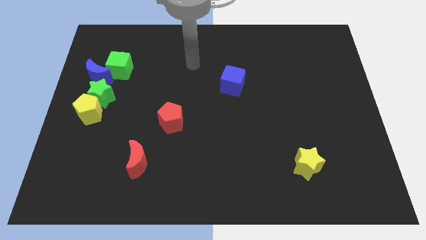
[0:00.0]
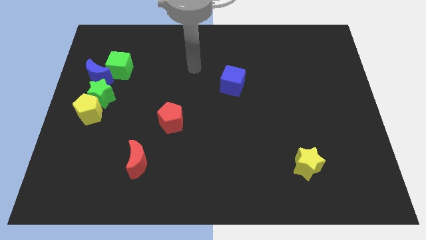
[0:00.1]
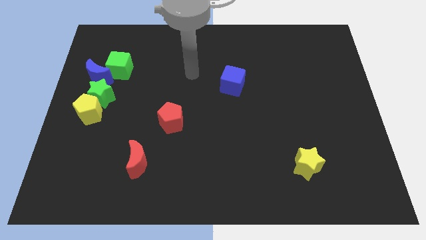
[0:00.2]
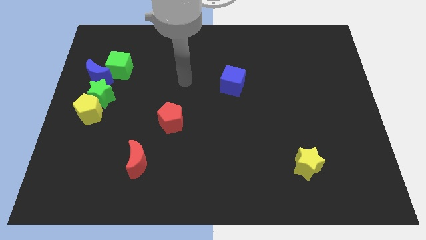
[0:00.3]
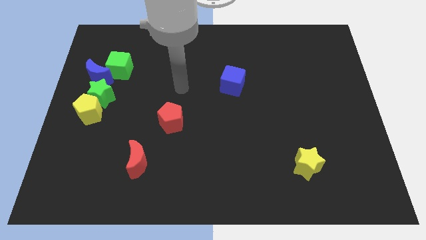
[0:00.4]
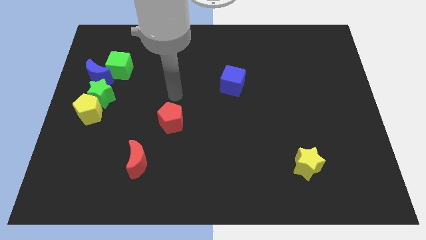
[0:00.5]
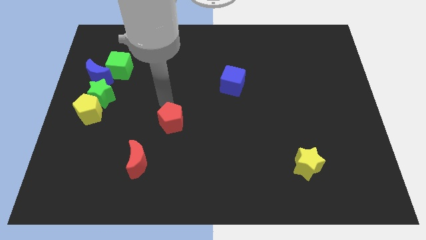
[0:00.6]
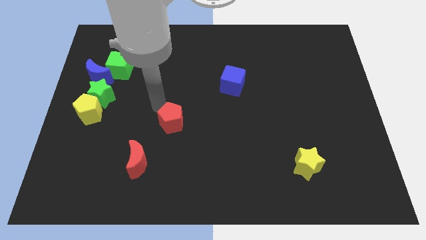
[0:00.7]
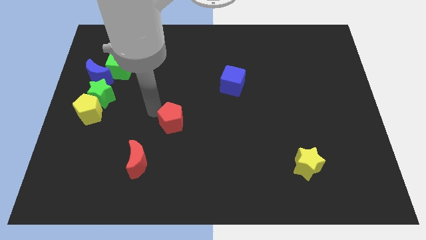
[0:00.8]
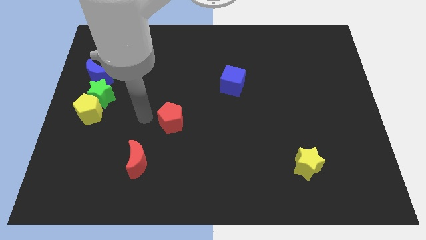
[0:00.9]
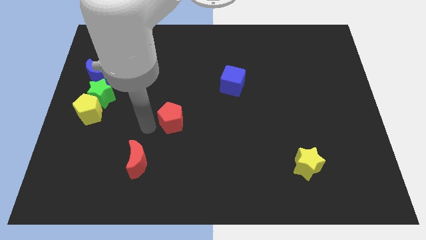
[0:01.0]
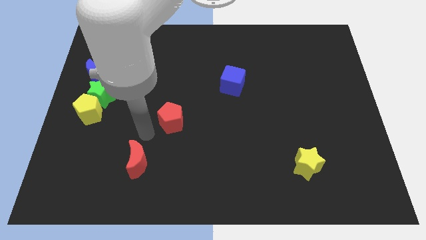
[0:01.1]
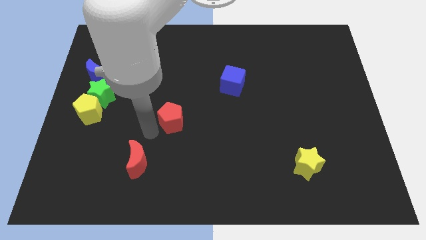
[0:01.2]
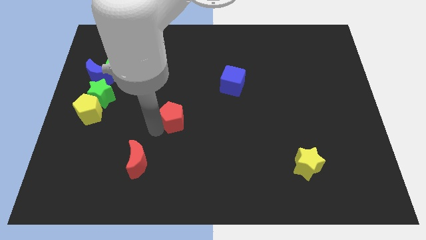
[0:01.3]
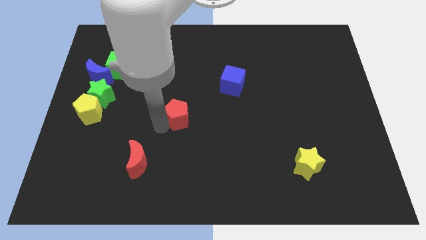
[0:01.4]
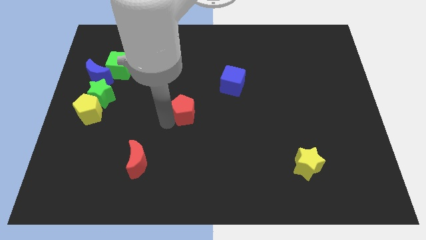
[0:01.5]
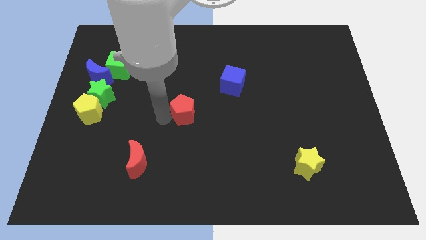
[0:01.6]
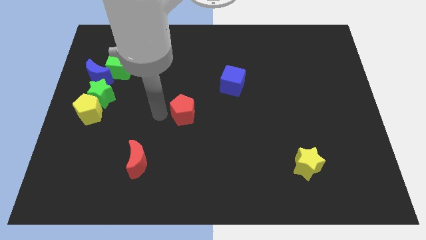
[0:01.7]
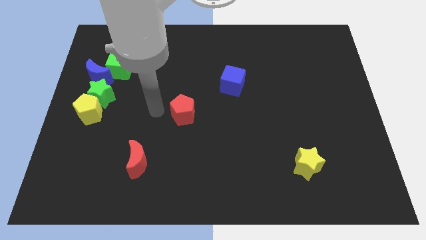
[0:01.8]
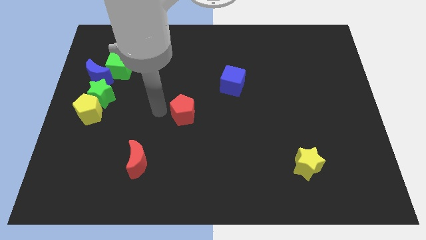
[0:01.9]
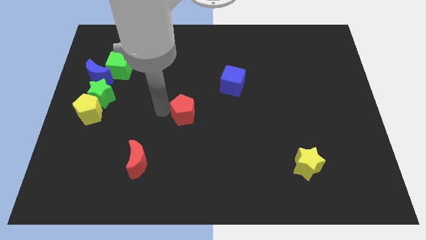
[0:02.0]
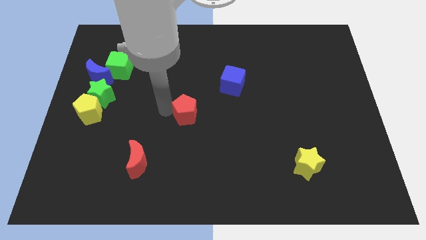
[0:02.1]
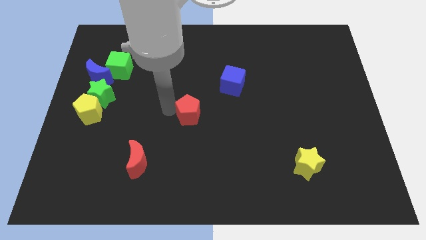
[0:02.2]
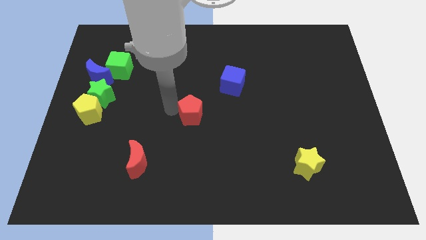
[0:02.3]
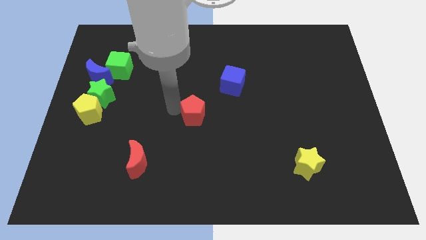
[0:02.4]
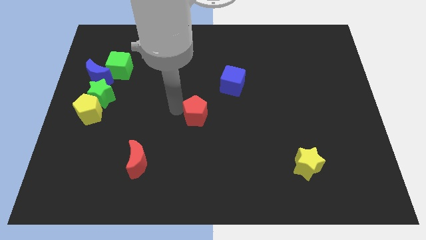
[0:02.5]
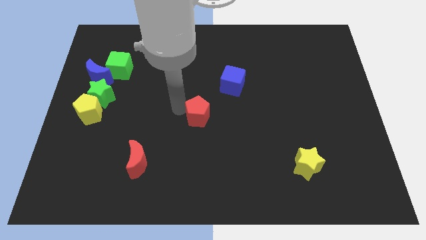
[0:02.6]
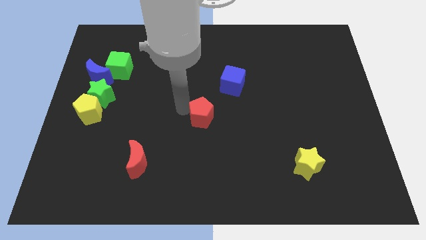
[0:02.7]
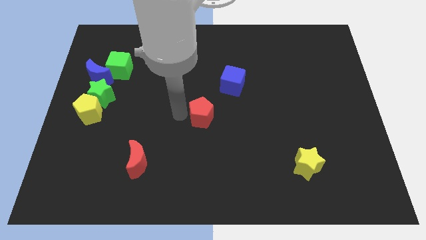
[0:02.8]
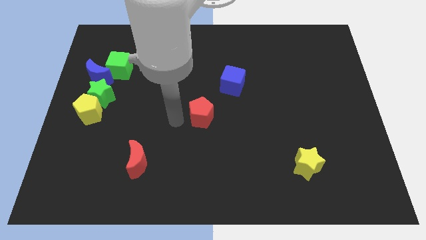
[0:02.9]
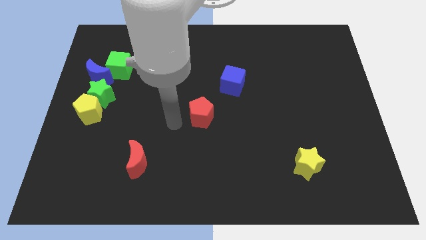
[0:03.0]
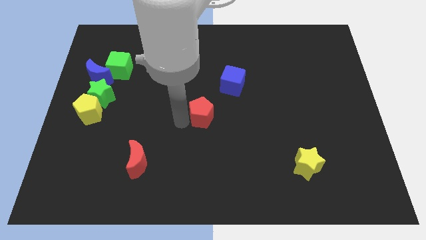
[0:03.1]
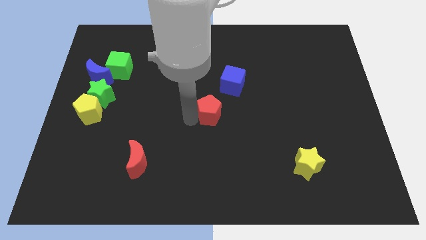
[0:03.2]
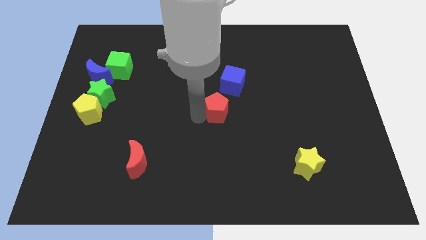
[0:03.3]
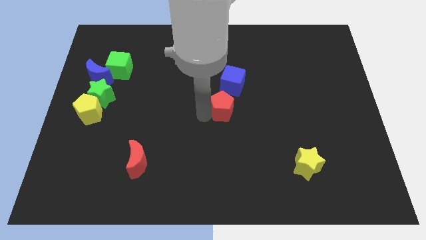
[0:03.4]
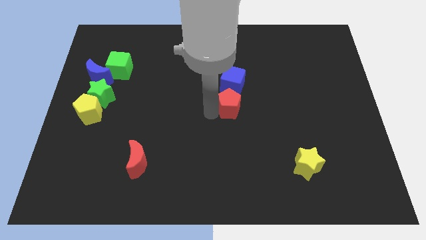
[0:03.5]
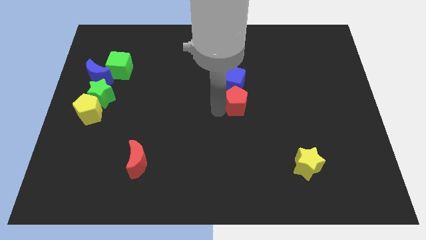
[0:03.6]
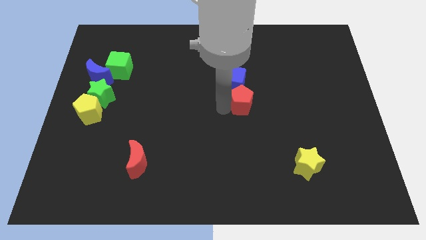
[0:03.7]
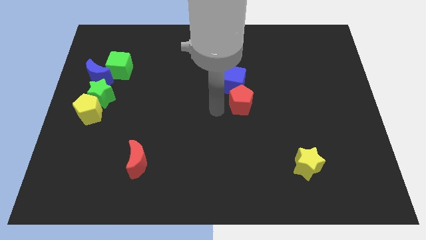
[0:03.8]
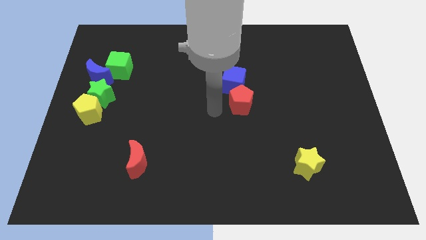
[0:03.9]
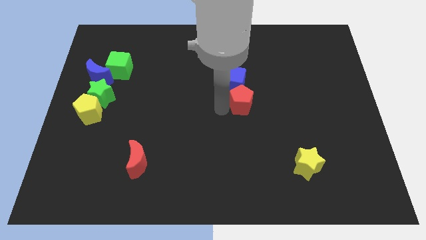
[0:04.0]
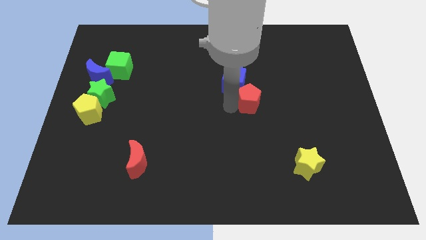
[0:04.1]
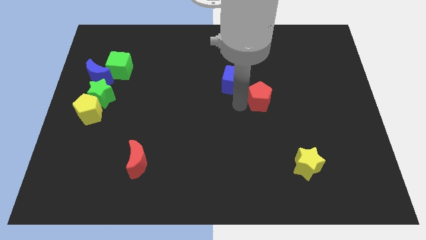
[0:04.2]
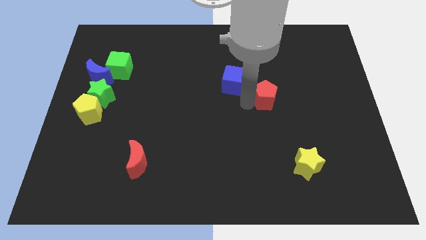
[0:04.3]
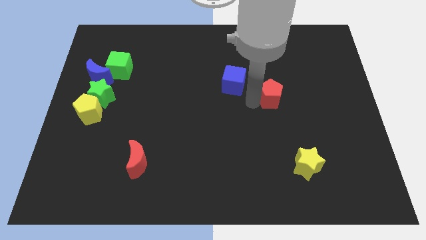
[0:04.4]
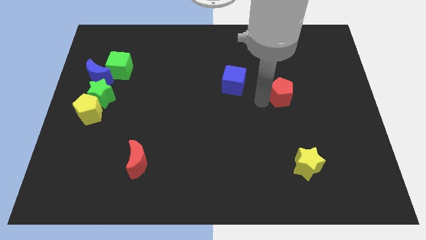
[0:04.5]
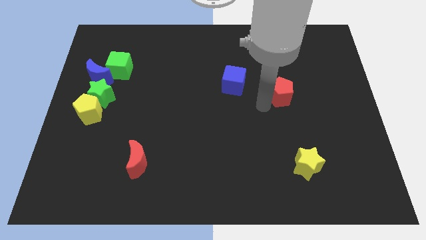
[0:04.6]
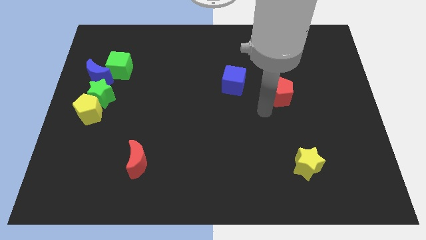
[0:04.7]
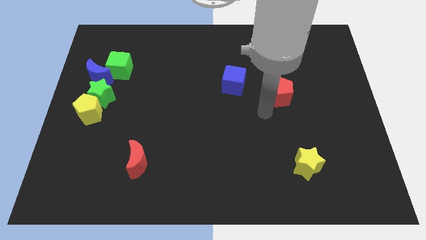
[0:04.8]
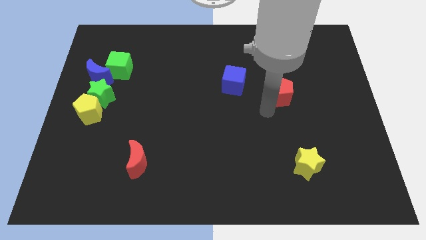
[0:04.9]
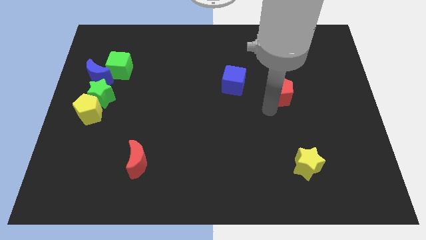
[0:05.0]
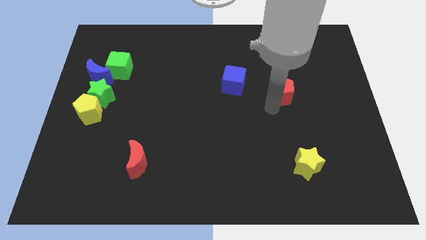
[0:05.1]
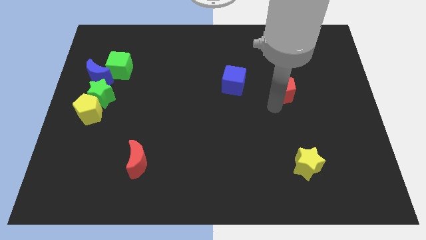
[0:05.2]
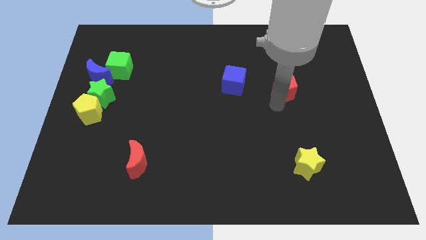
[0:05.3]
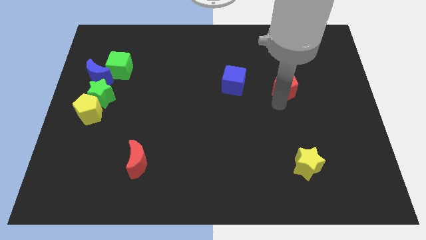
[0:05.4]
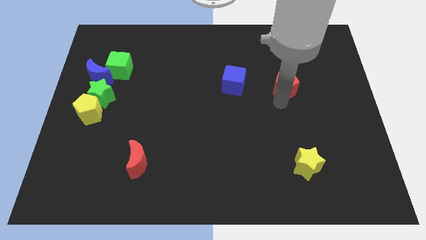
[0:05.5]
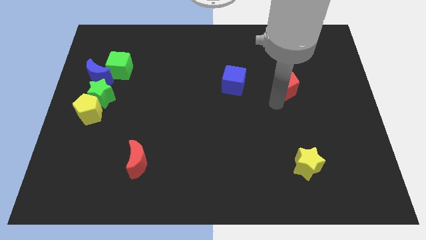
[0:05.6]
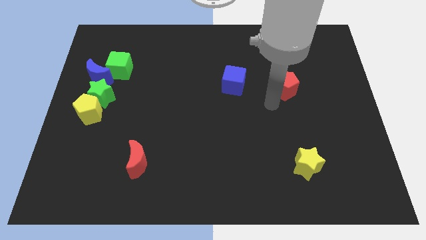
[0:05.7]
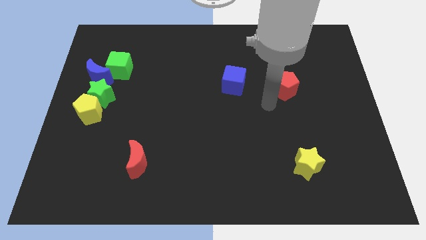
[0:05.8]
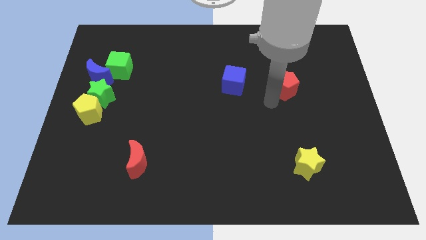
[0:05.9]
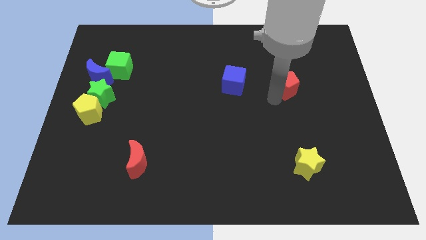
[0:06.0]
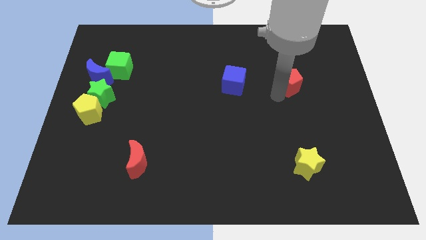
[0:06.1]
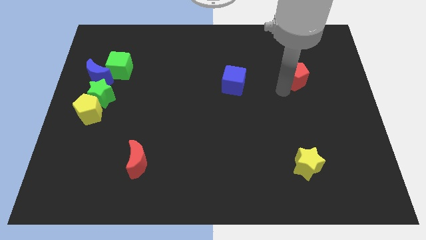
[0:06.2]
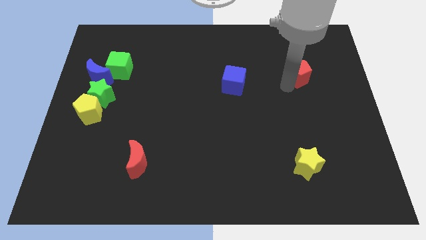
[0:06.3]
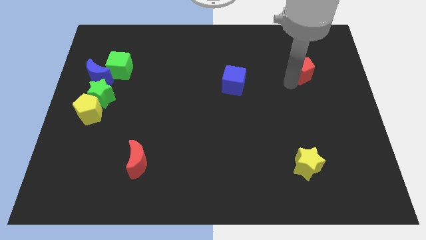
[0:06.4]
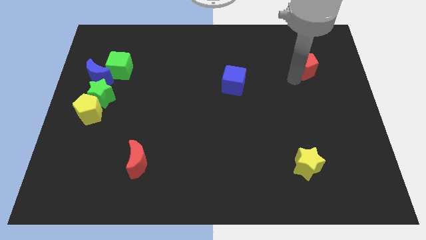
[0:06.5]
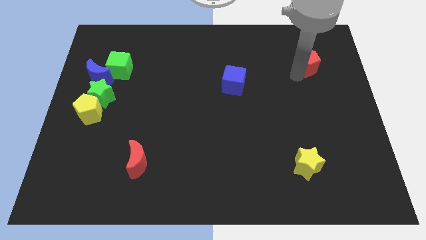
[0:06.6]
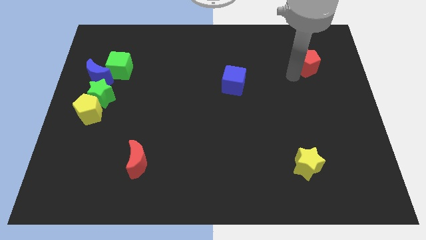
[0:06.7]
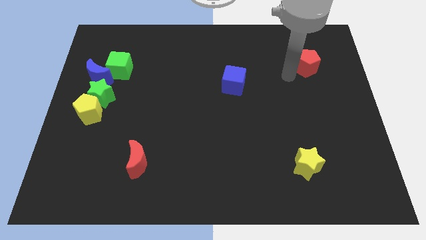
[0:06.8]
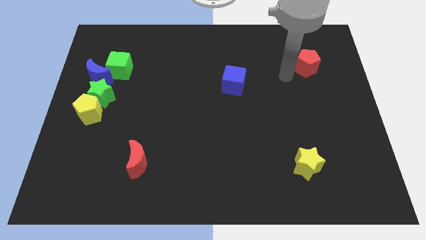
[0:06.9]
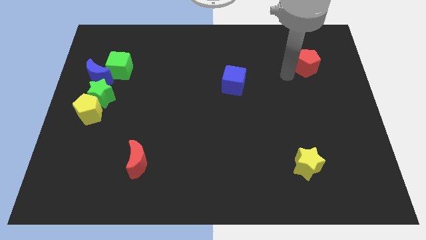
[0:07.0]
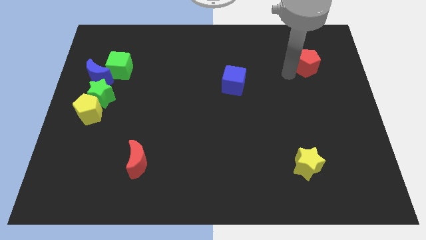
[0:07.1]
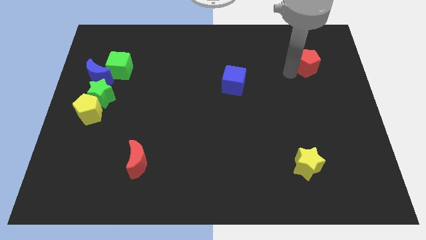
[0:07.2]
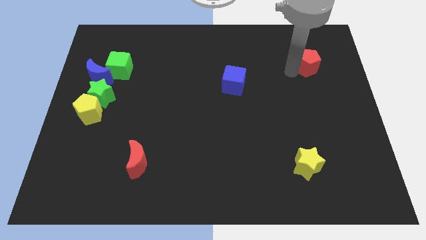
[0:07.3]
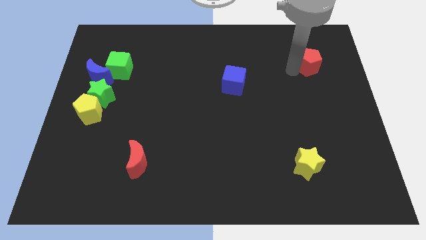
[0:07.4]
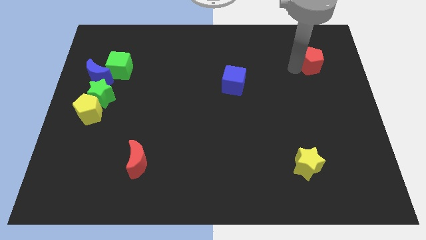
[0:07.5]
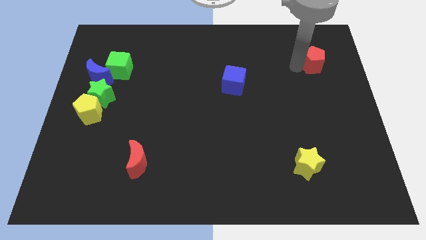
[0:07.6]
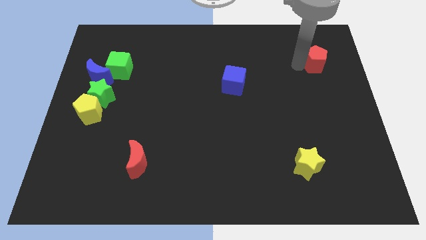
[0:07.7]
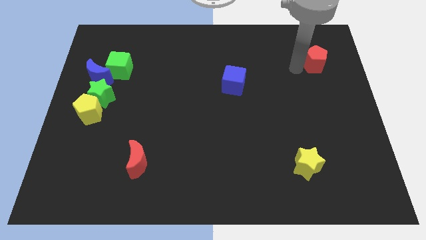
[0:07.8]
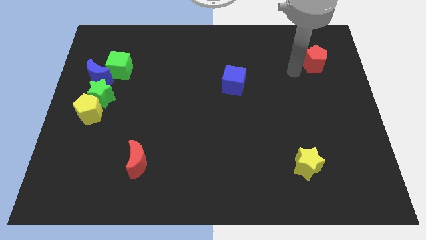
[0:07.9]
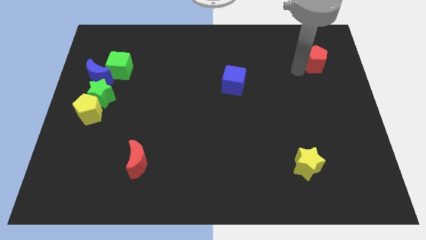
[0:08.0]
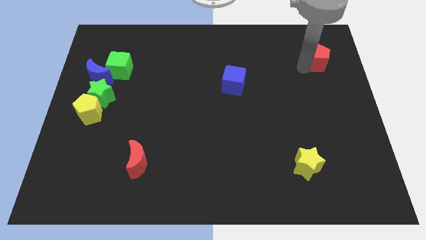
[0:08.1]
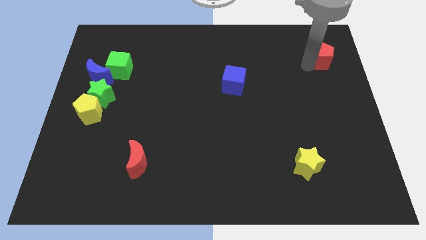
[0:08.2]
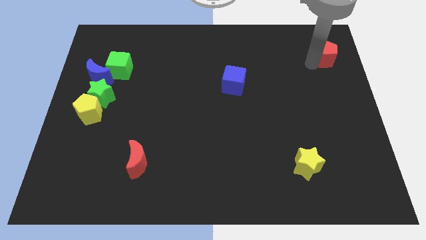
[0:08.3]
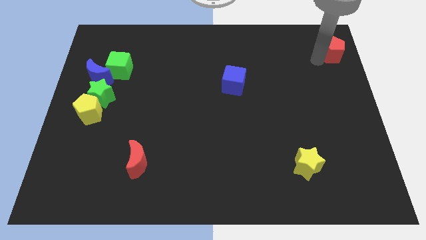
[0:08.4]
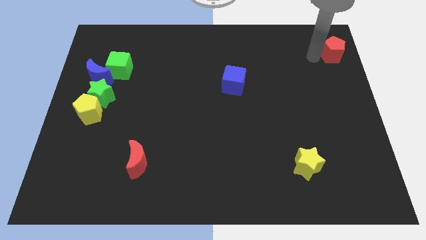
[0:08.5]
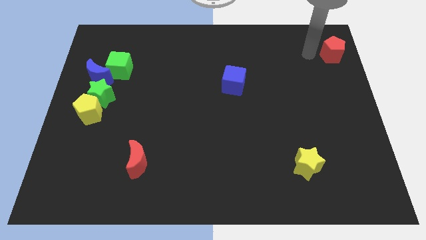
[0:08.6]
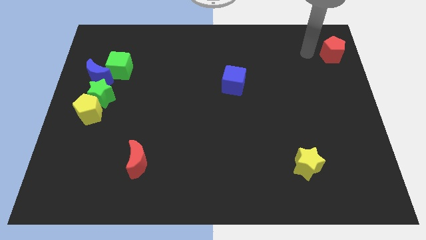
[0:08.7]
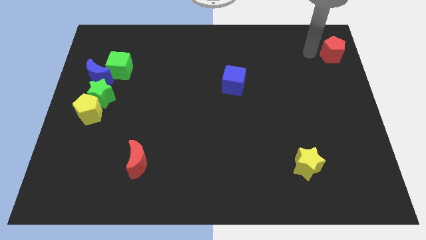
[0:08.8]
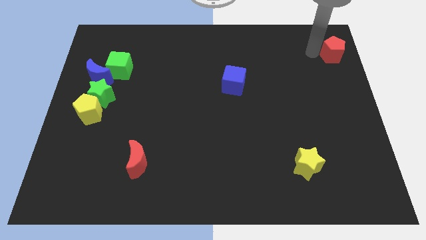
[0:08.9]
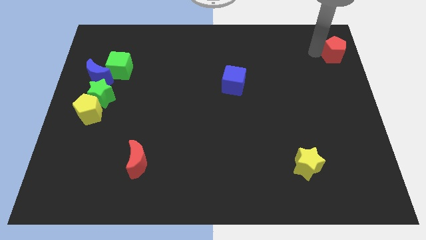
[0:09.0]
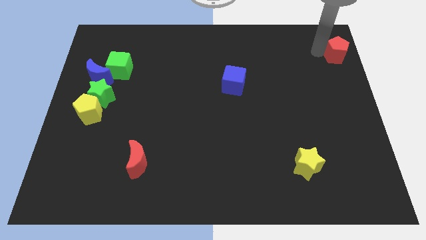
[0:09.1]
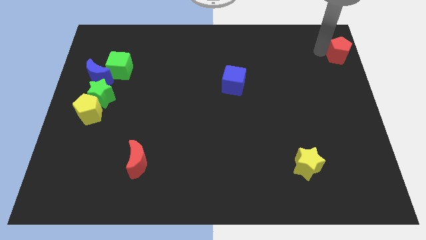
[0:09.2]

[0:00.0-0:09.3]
slide the red pentagon to the top right
